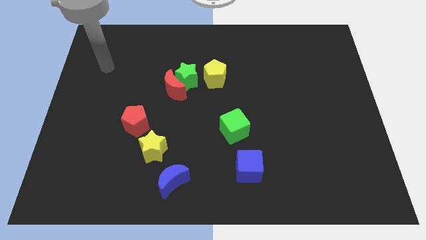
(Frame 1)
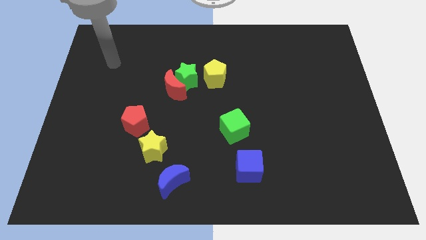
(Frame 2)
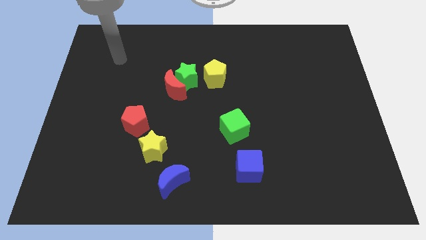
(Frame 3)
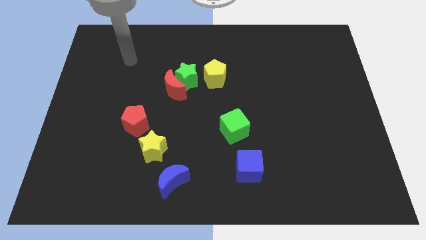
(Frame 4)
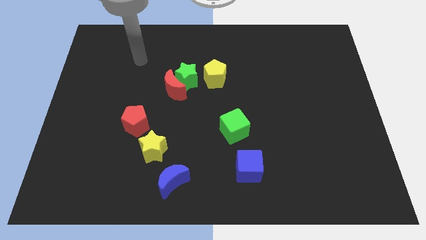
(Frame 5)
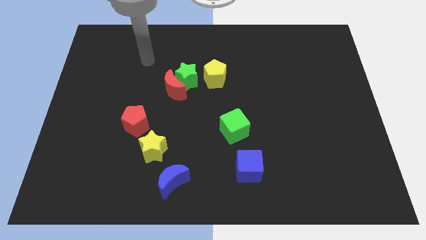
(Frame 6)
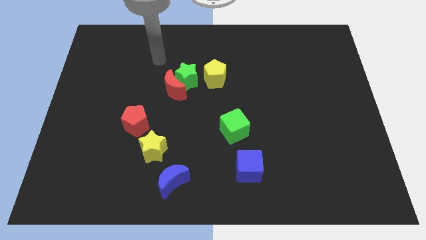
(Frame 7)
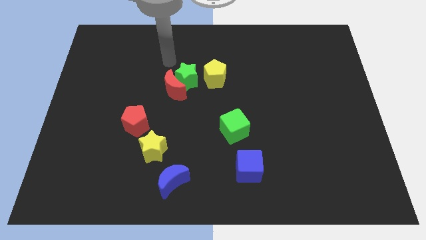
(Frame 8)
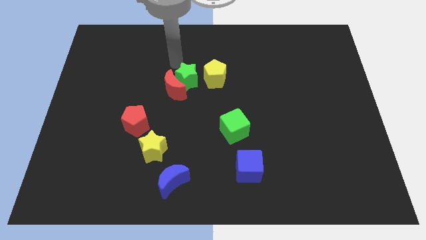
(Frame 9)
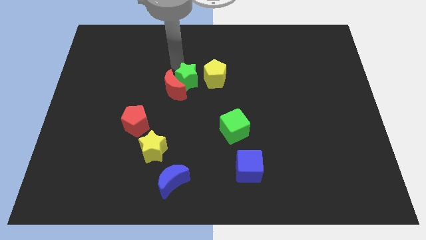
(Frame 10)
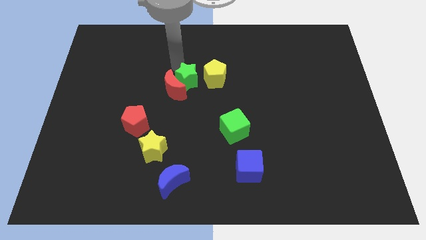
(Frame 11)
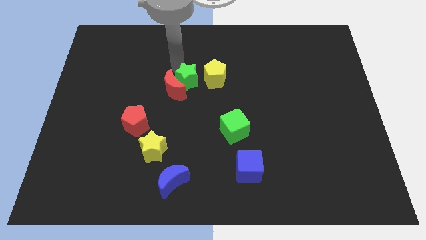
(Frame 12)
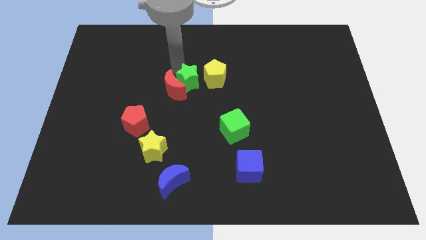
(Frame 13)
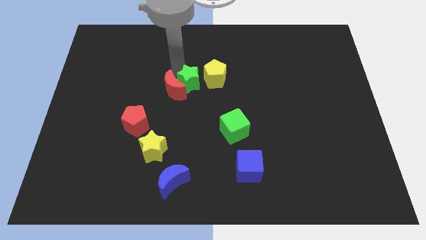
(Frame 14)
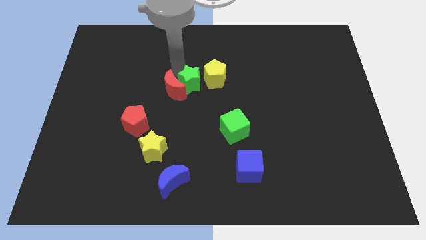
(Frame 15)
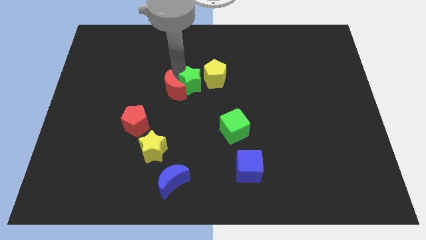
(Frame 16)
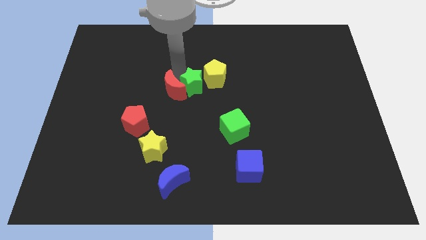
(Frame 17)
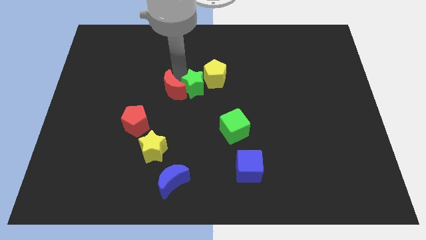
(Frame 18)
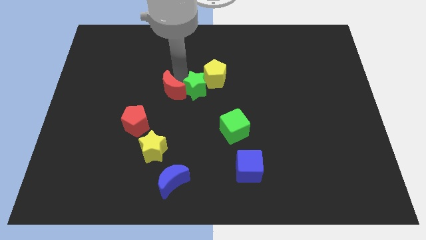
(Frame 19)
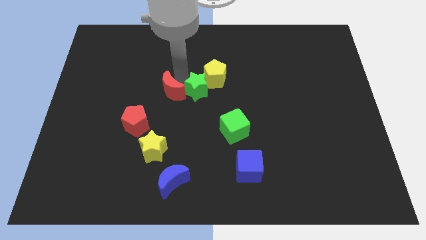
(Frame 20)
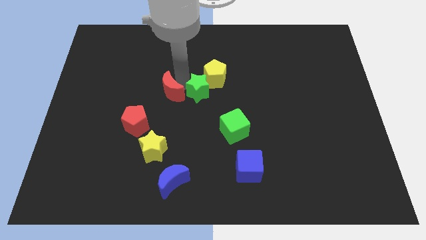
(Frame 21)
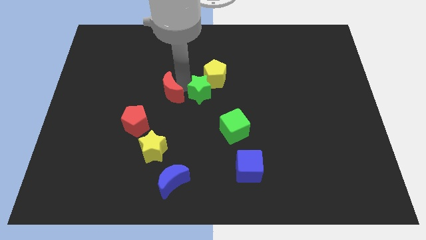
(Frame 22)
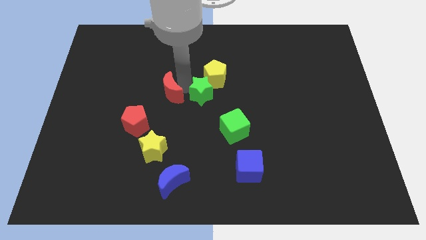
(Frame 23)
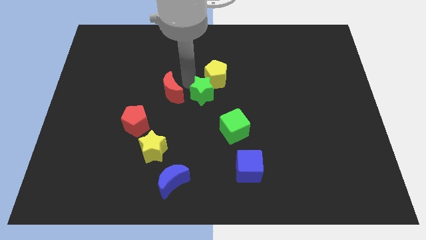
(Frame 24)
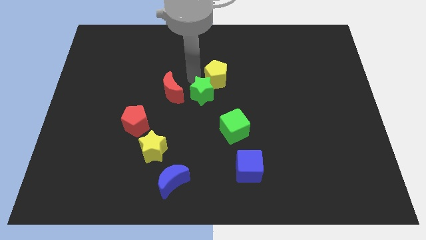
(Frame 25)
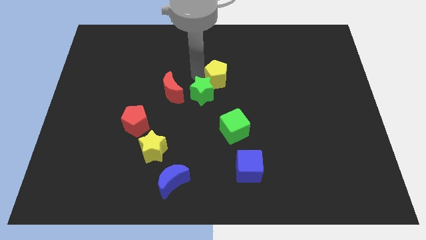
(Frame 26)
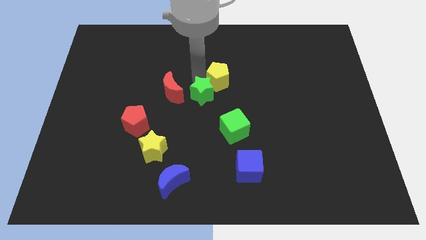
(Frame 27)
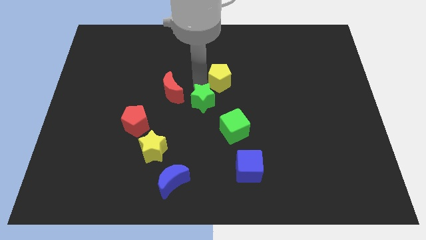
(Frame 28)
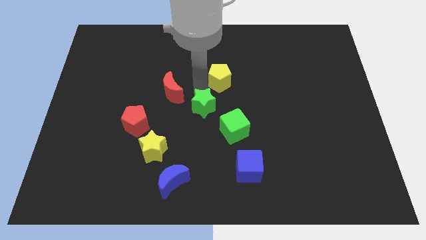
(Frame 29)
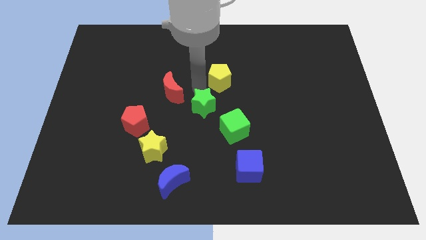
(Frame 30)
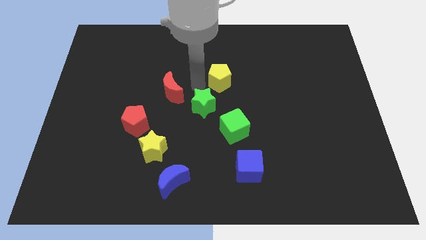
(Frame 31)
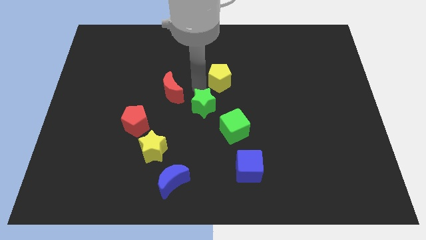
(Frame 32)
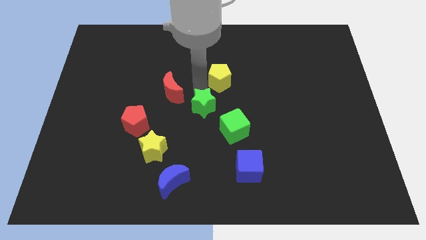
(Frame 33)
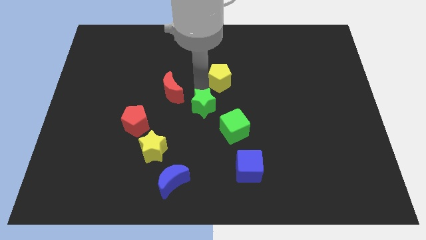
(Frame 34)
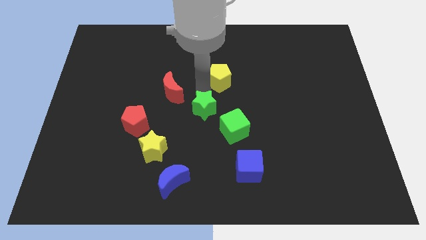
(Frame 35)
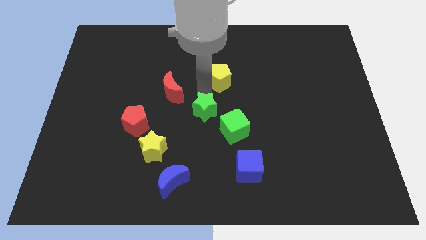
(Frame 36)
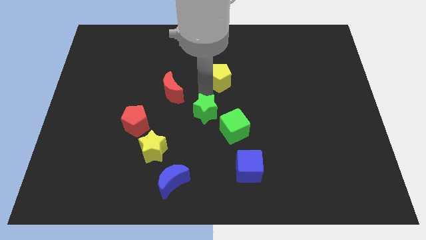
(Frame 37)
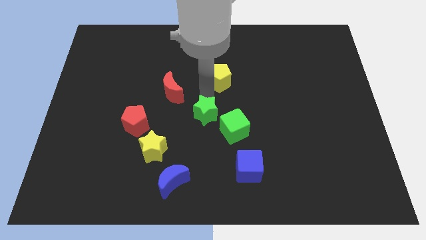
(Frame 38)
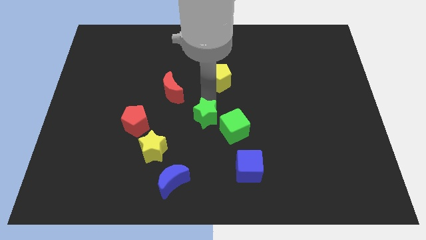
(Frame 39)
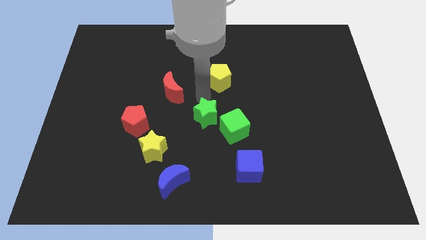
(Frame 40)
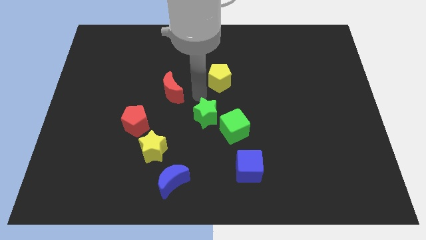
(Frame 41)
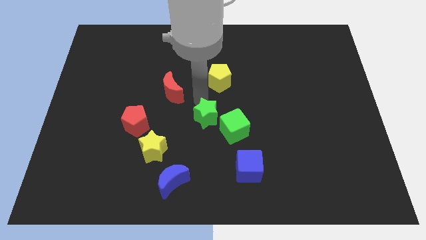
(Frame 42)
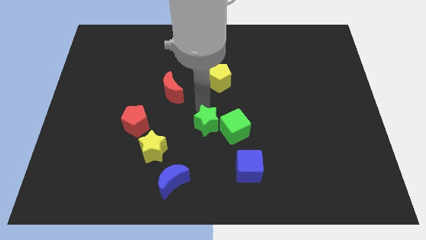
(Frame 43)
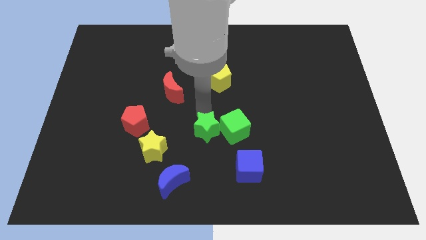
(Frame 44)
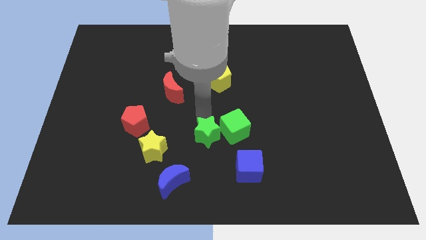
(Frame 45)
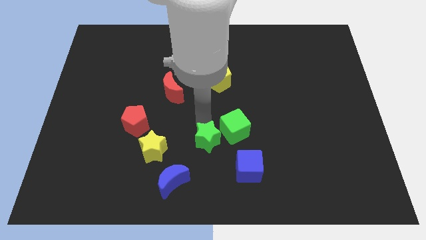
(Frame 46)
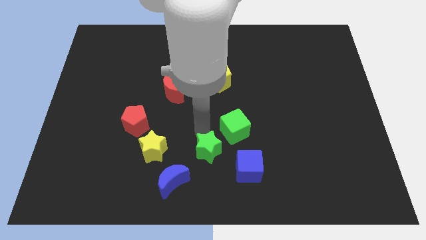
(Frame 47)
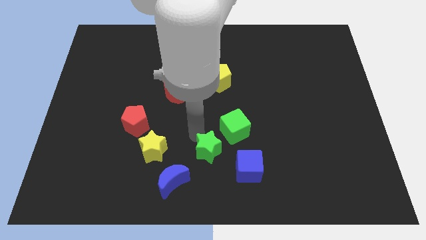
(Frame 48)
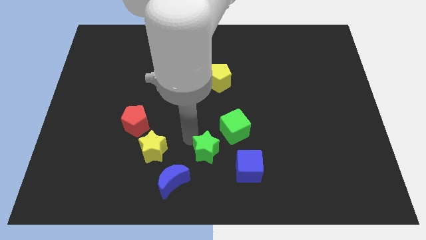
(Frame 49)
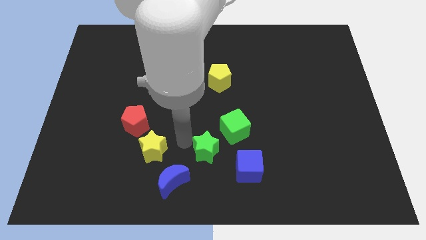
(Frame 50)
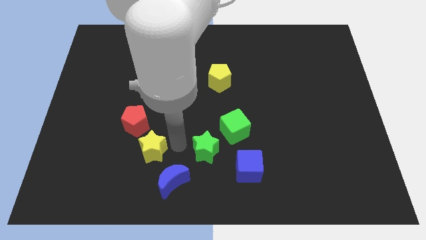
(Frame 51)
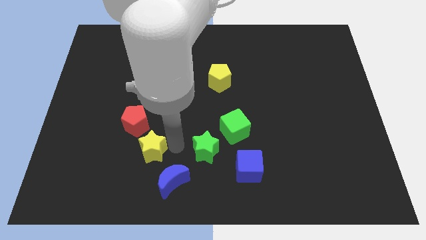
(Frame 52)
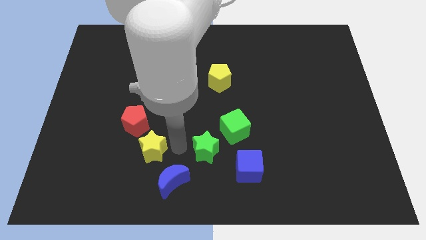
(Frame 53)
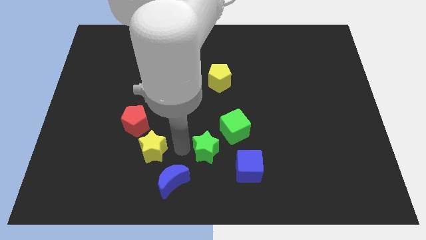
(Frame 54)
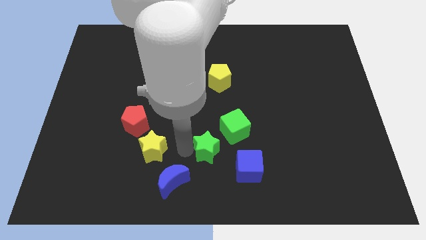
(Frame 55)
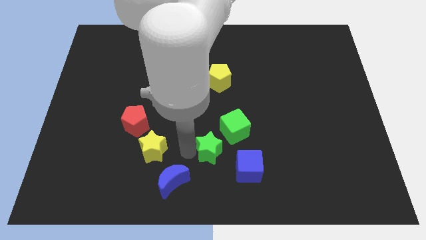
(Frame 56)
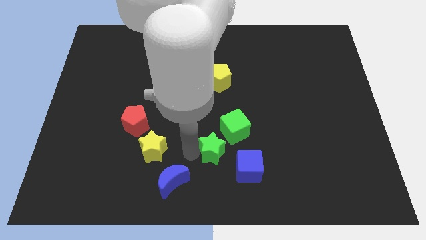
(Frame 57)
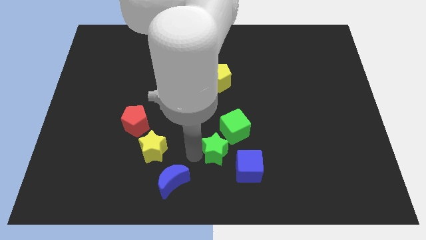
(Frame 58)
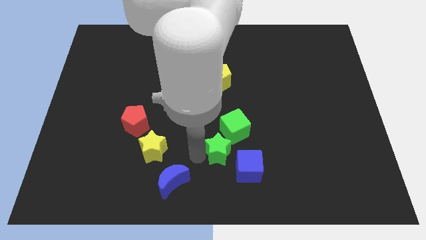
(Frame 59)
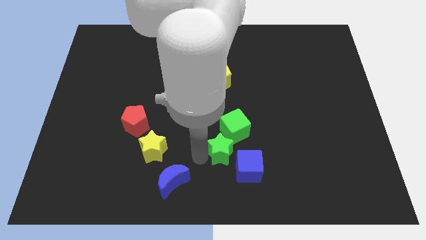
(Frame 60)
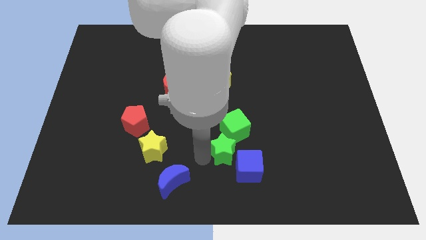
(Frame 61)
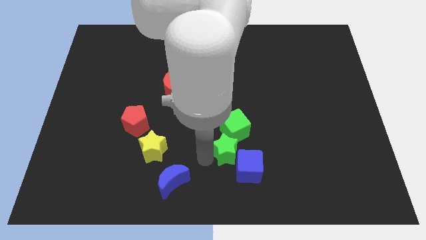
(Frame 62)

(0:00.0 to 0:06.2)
slide the green star to the blue cube

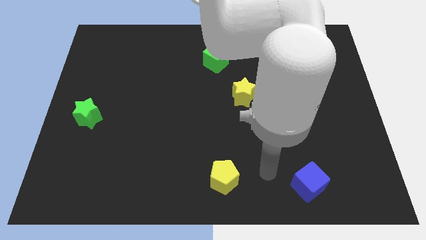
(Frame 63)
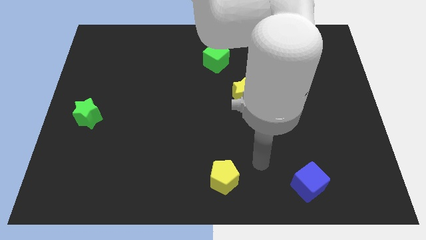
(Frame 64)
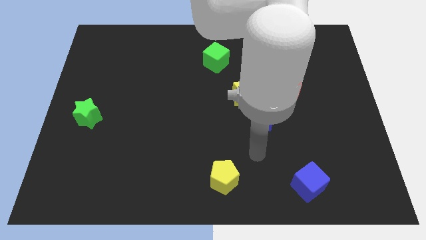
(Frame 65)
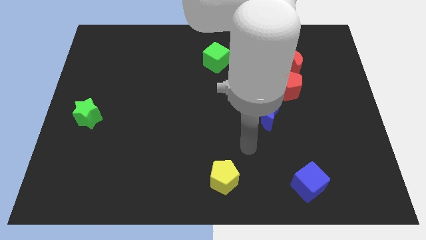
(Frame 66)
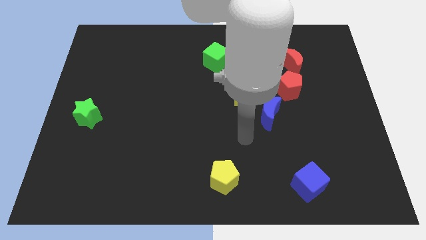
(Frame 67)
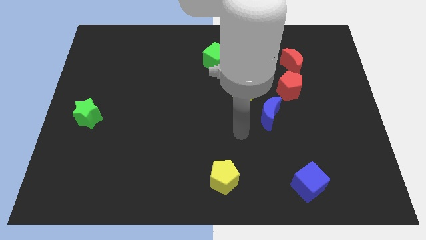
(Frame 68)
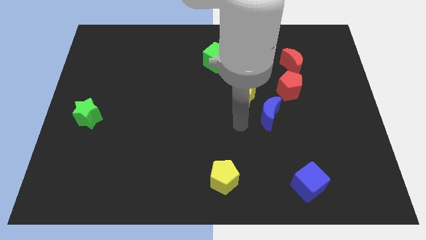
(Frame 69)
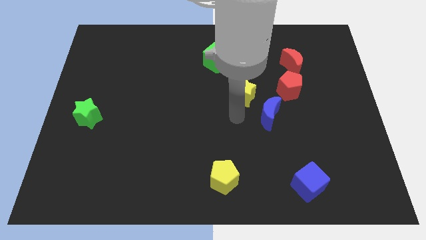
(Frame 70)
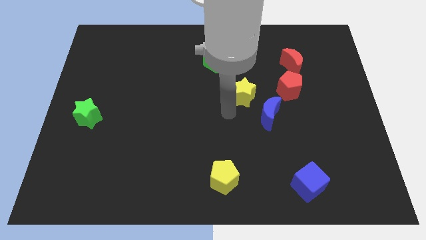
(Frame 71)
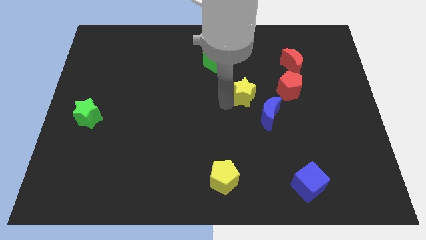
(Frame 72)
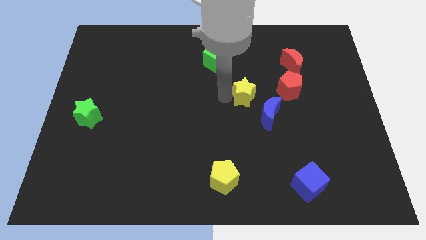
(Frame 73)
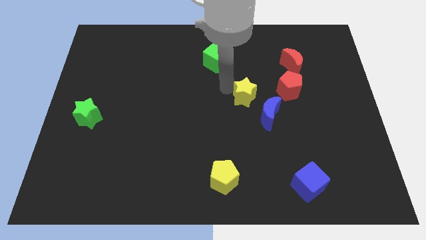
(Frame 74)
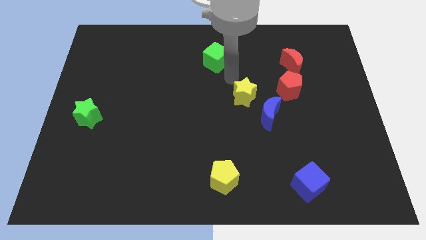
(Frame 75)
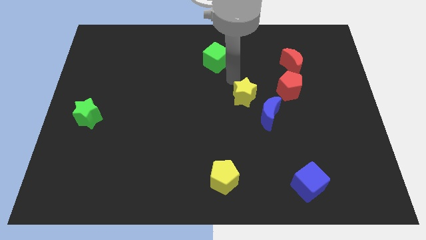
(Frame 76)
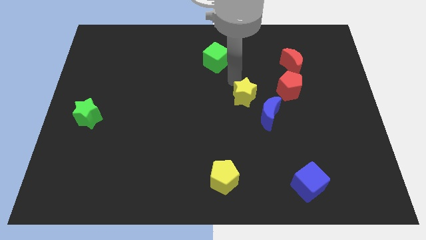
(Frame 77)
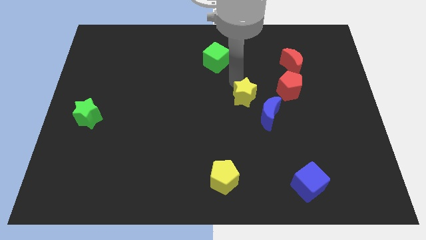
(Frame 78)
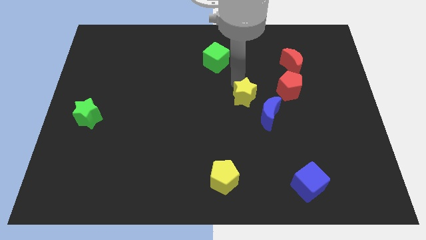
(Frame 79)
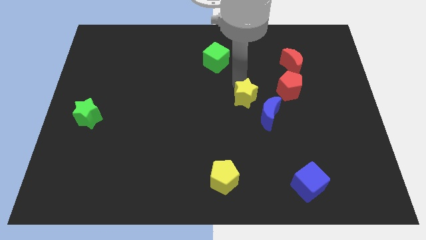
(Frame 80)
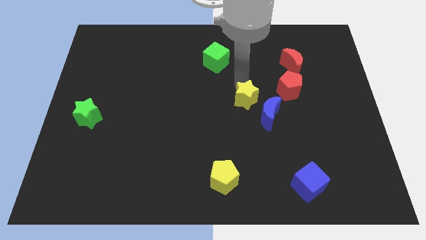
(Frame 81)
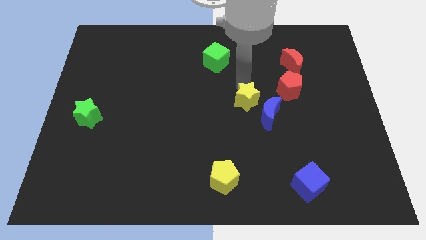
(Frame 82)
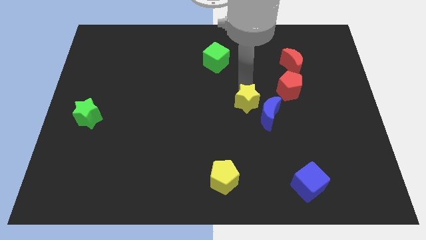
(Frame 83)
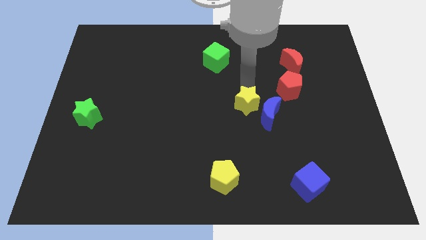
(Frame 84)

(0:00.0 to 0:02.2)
push the yellow star next to the blue moon
